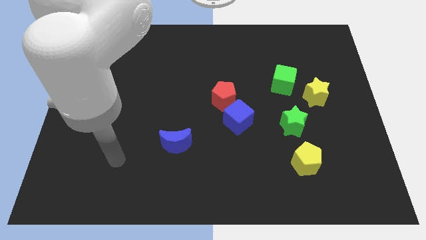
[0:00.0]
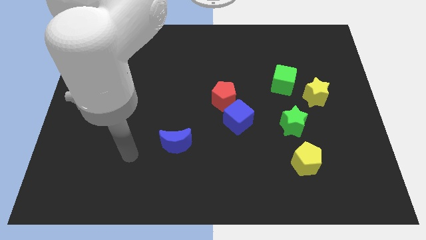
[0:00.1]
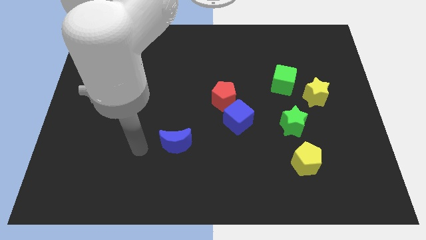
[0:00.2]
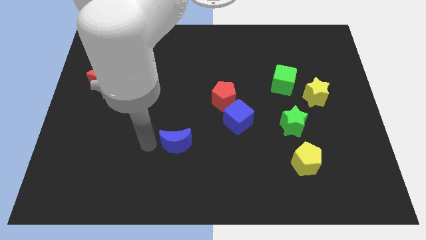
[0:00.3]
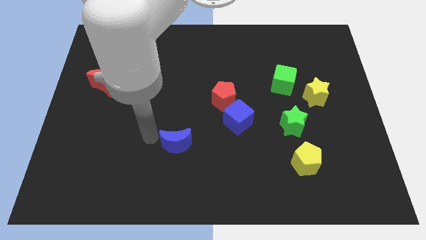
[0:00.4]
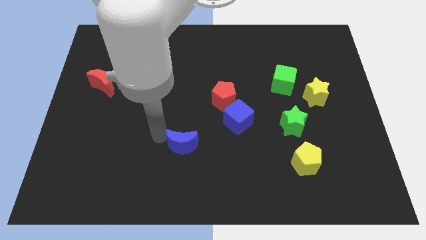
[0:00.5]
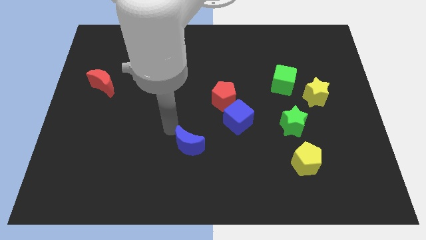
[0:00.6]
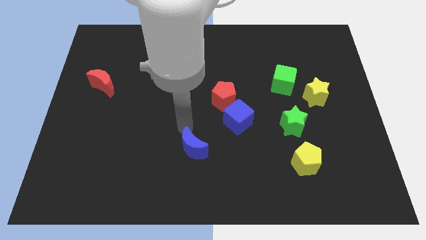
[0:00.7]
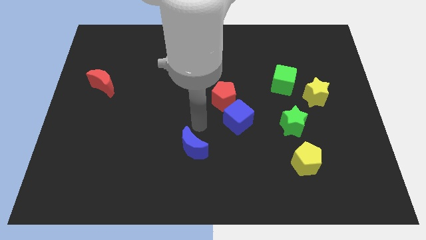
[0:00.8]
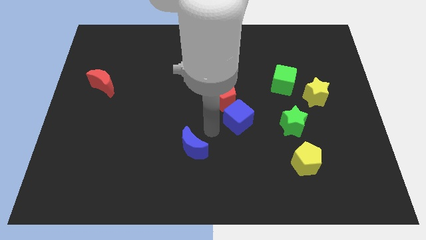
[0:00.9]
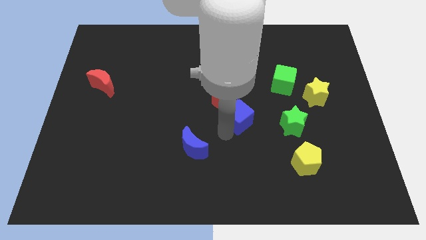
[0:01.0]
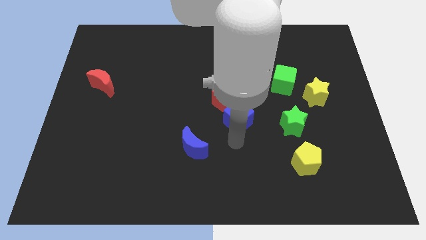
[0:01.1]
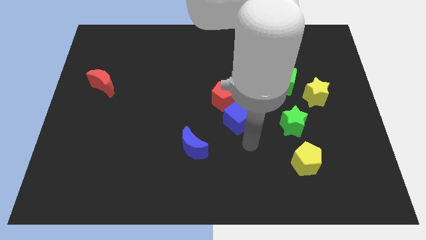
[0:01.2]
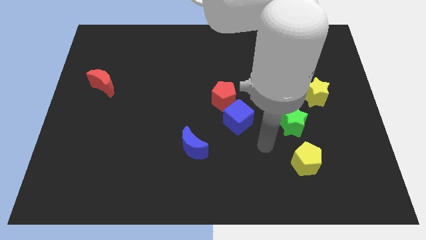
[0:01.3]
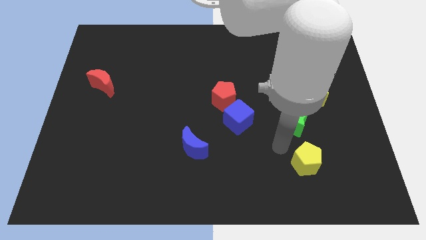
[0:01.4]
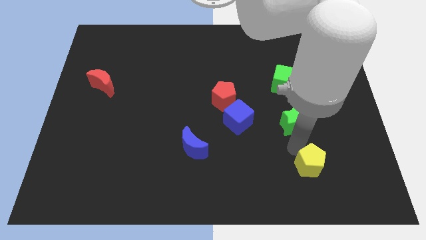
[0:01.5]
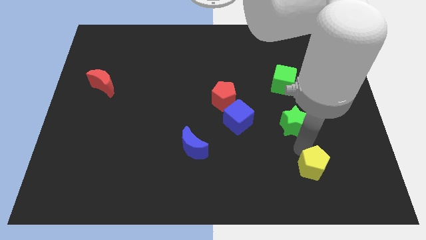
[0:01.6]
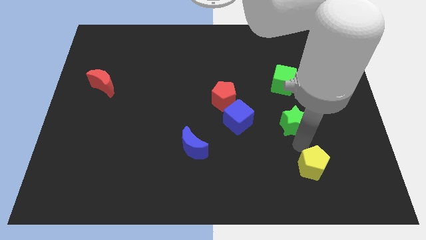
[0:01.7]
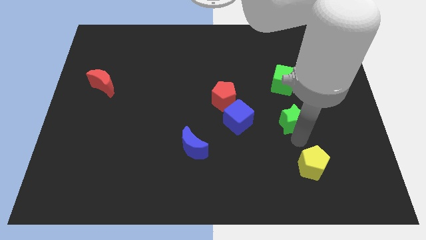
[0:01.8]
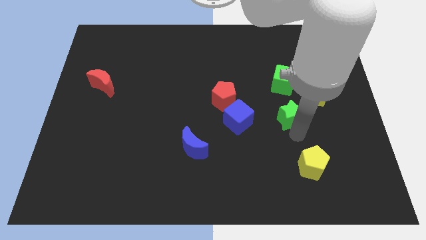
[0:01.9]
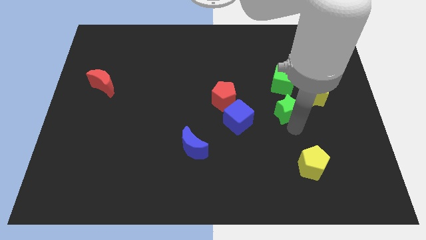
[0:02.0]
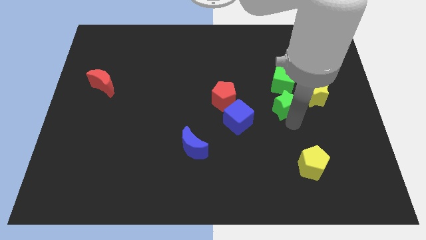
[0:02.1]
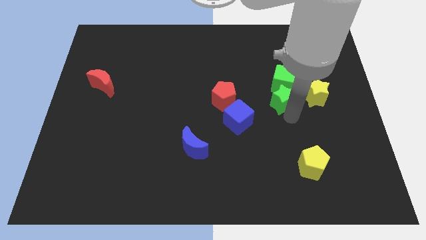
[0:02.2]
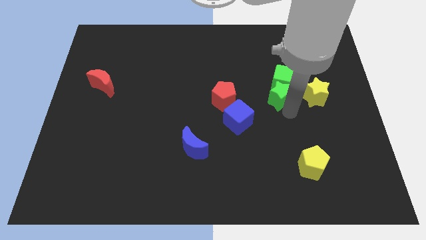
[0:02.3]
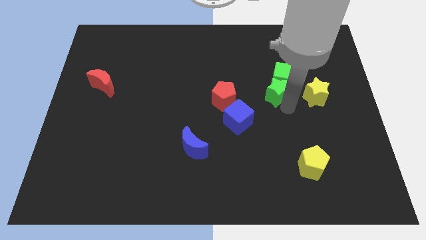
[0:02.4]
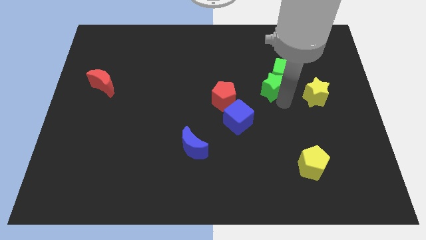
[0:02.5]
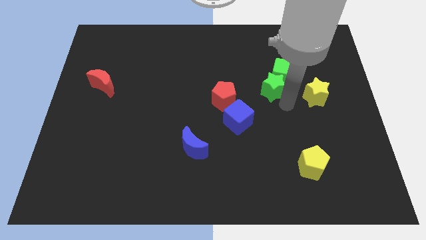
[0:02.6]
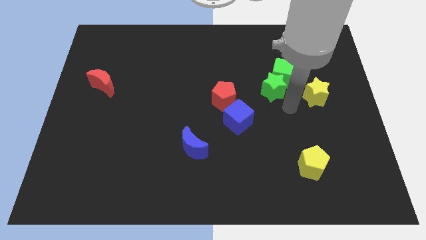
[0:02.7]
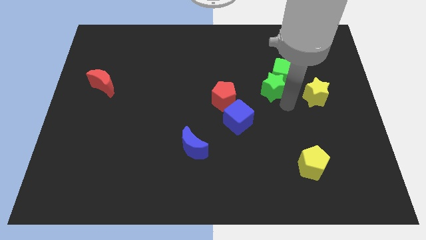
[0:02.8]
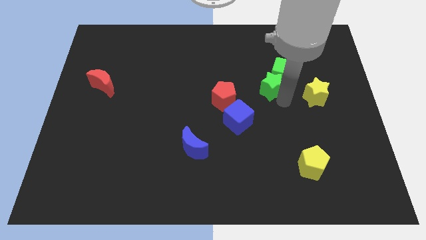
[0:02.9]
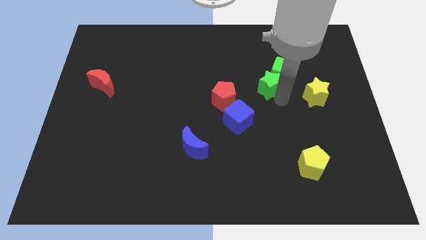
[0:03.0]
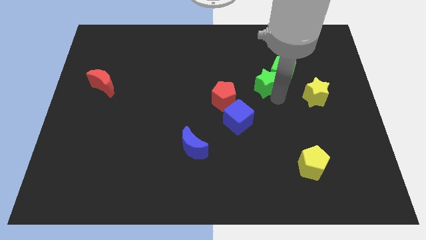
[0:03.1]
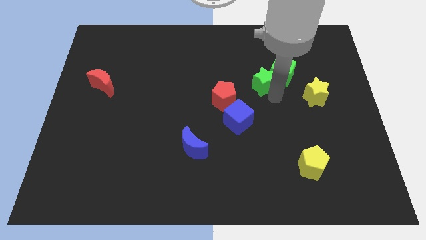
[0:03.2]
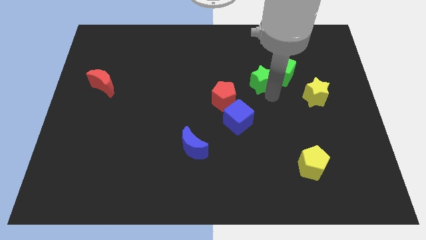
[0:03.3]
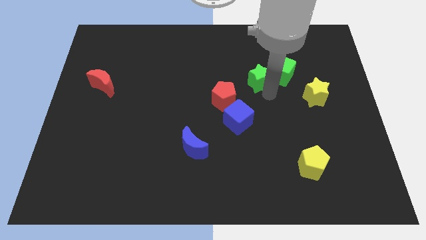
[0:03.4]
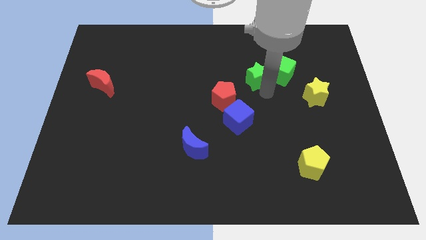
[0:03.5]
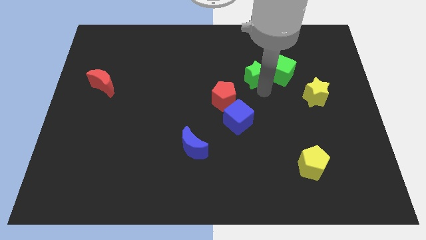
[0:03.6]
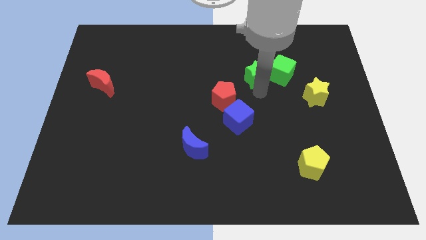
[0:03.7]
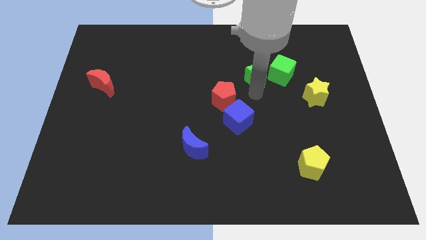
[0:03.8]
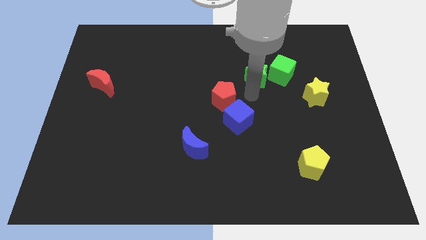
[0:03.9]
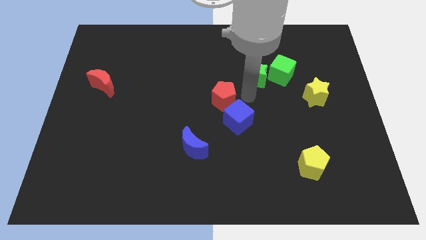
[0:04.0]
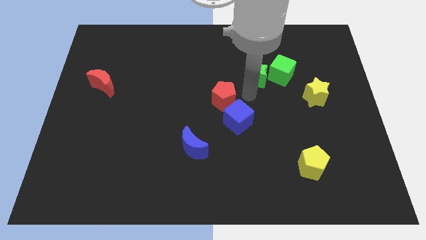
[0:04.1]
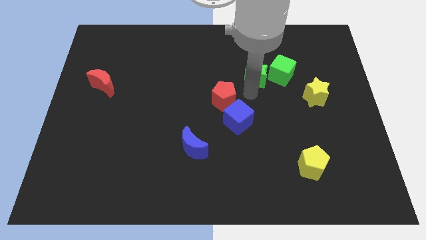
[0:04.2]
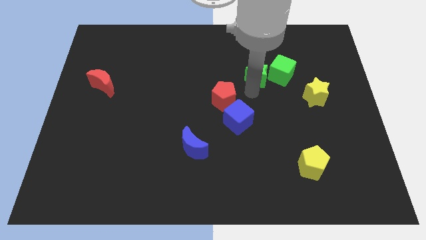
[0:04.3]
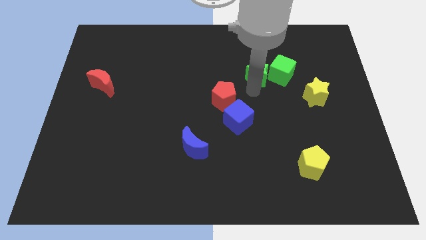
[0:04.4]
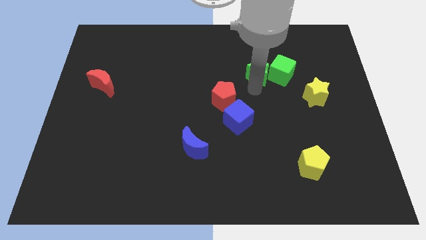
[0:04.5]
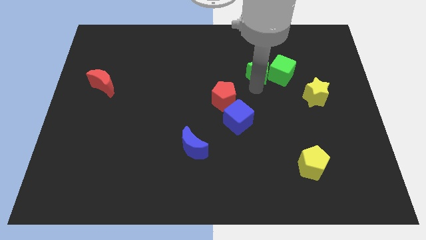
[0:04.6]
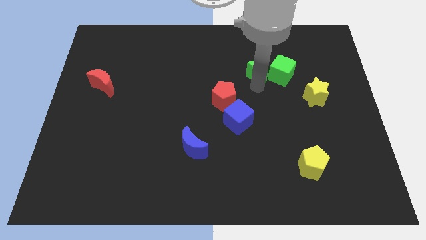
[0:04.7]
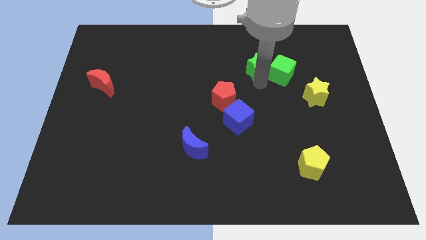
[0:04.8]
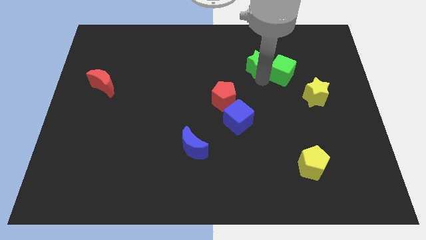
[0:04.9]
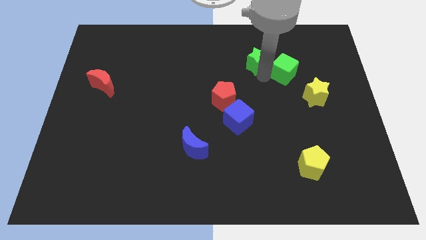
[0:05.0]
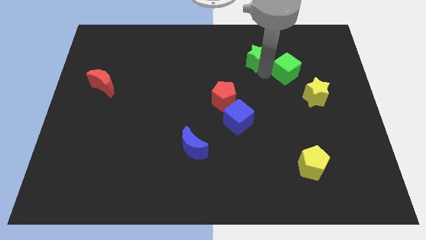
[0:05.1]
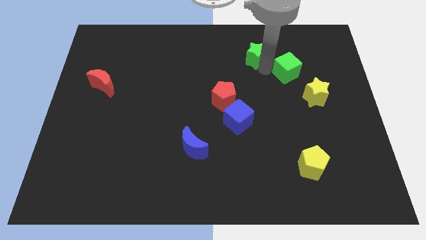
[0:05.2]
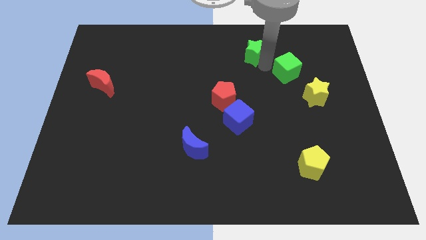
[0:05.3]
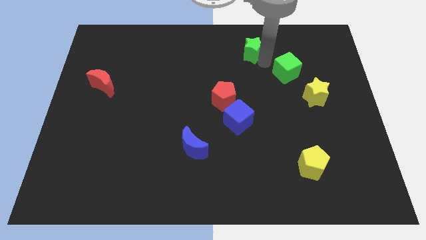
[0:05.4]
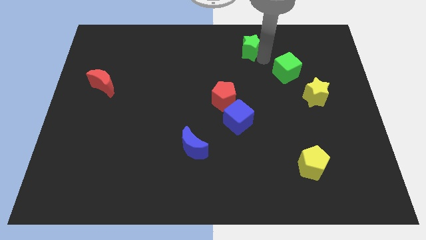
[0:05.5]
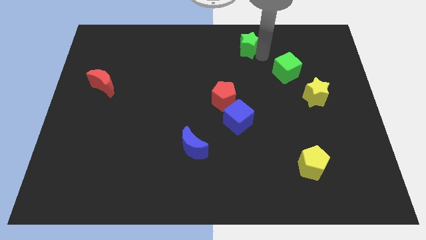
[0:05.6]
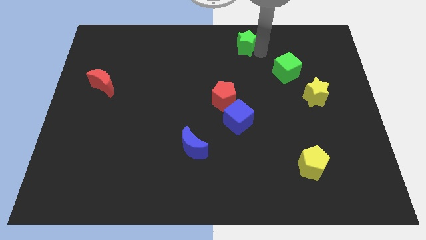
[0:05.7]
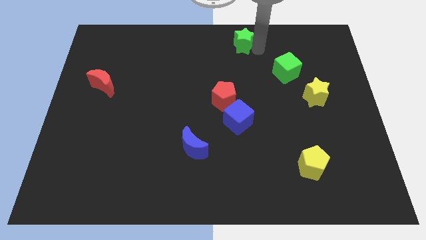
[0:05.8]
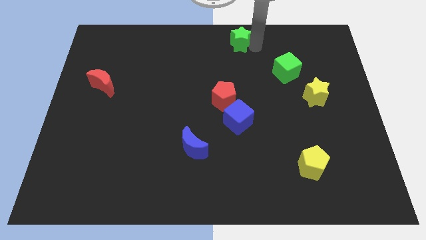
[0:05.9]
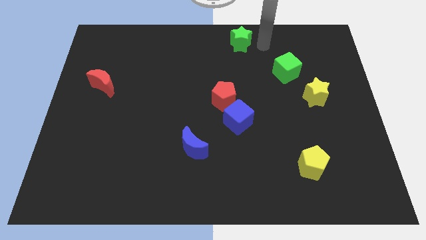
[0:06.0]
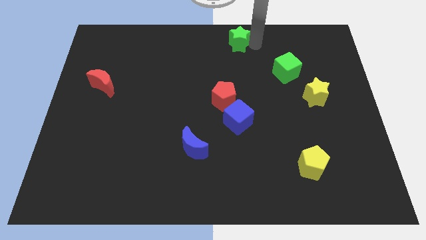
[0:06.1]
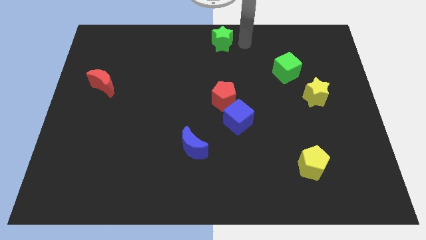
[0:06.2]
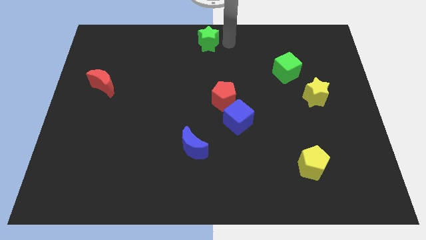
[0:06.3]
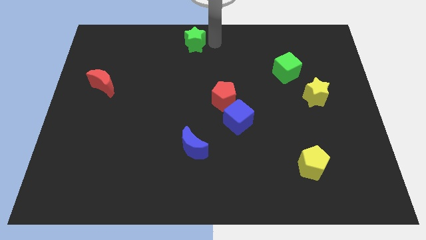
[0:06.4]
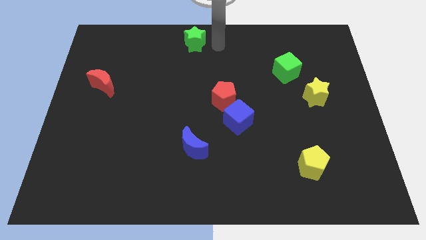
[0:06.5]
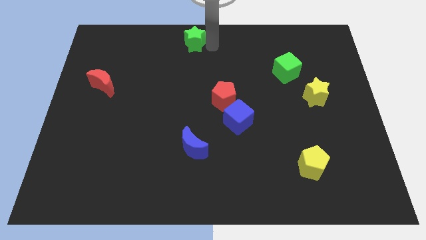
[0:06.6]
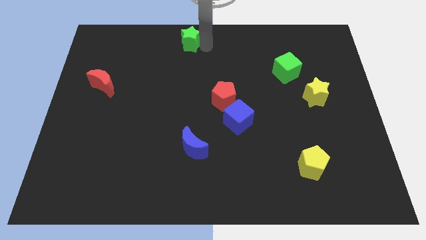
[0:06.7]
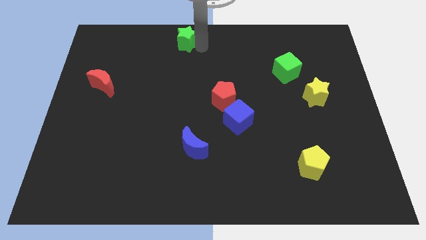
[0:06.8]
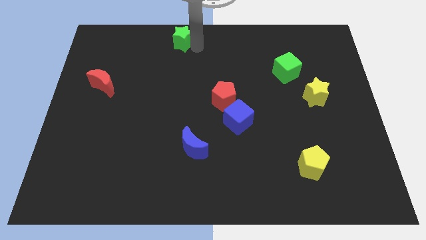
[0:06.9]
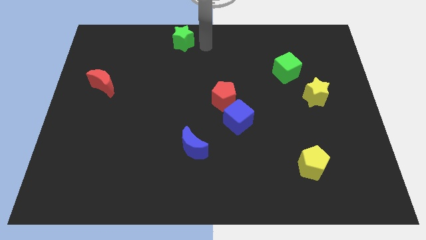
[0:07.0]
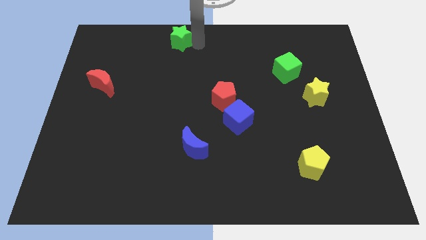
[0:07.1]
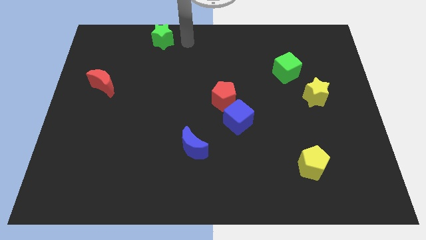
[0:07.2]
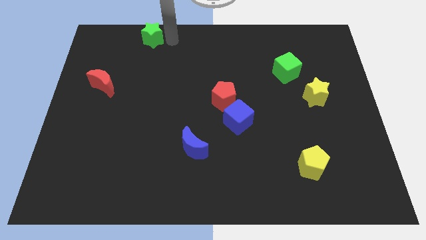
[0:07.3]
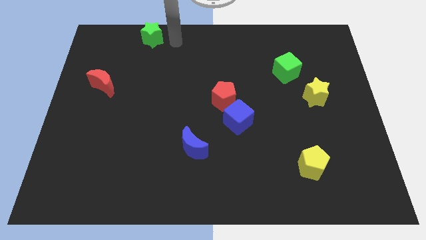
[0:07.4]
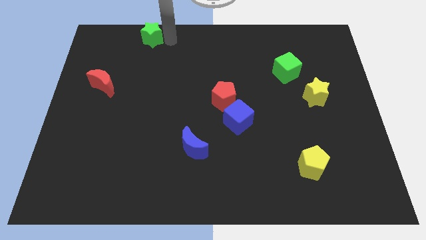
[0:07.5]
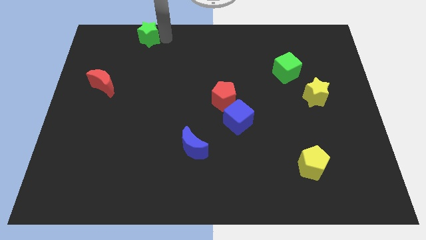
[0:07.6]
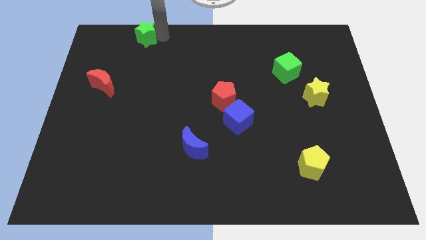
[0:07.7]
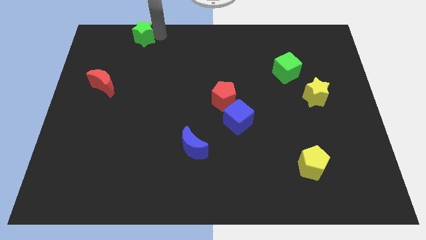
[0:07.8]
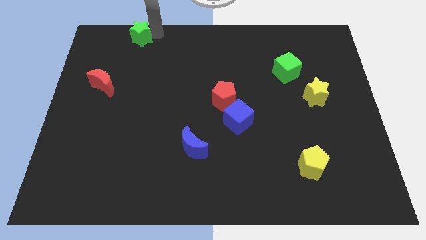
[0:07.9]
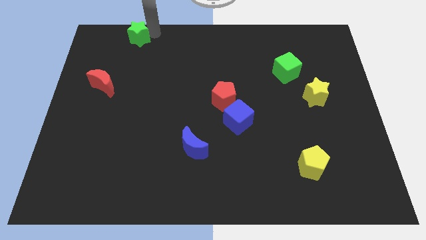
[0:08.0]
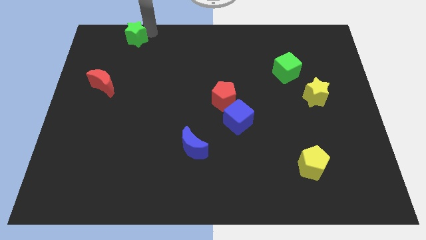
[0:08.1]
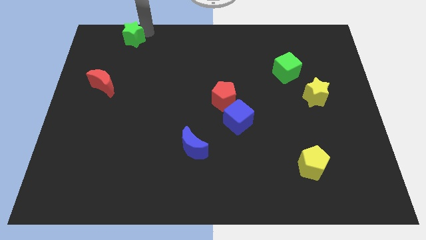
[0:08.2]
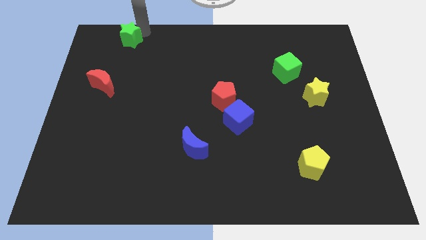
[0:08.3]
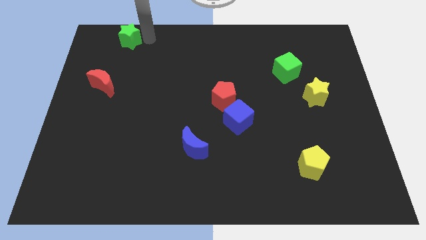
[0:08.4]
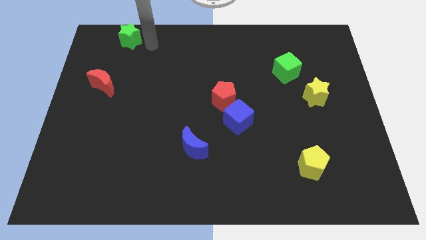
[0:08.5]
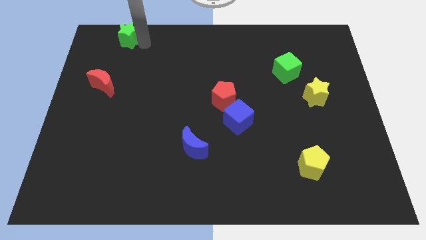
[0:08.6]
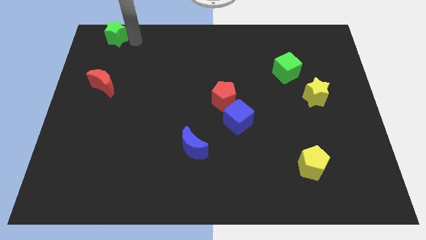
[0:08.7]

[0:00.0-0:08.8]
move the green star to the top left corner
